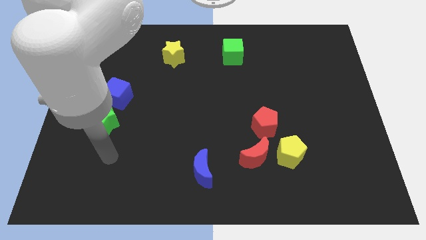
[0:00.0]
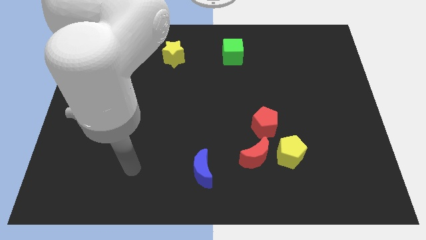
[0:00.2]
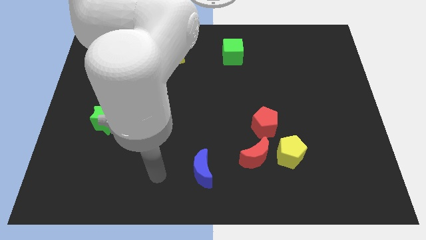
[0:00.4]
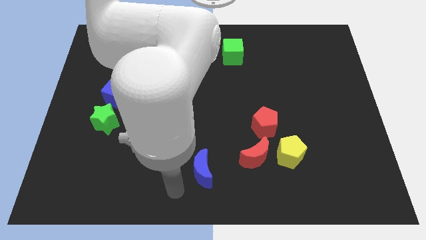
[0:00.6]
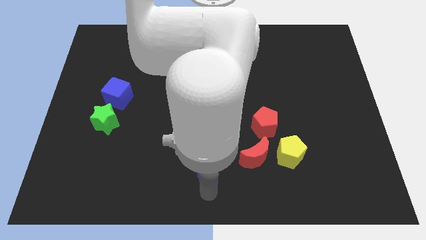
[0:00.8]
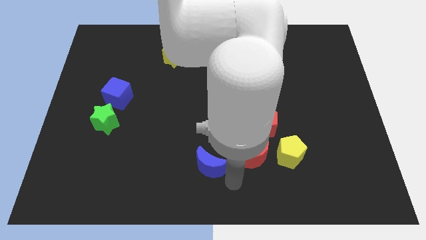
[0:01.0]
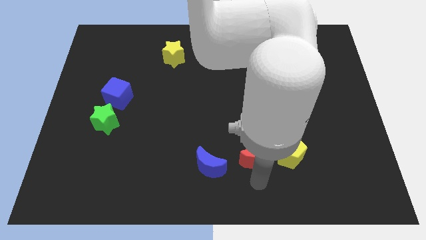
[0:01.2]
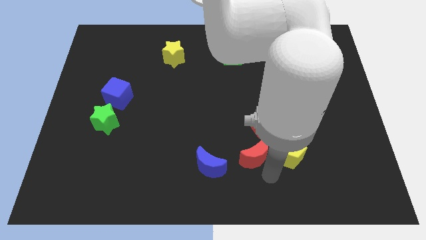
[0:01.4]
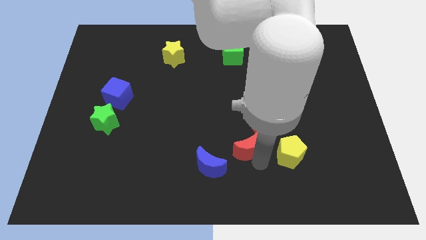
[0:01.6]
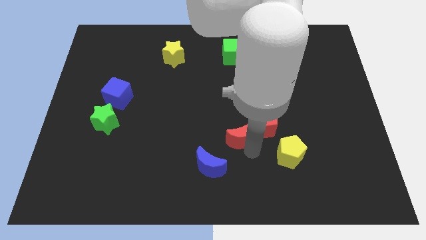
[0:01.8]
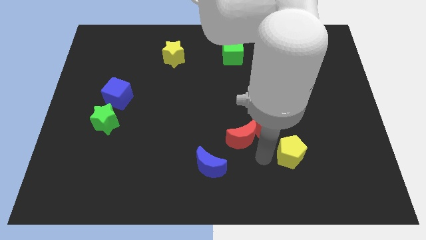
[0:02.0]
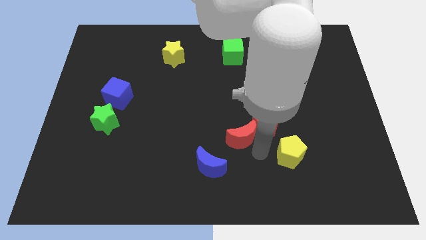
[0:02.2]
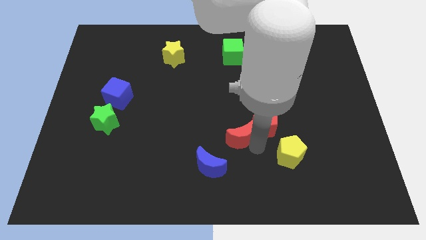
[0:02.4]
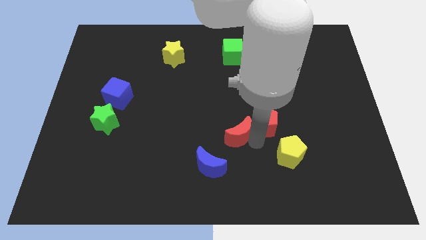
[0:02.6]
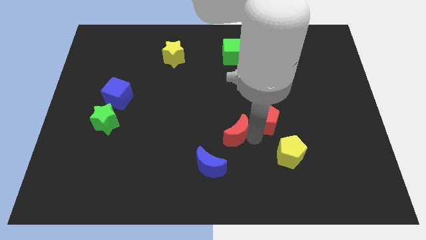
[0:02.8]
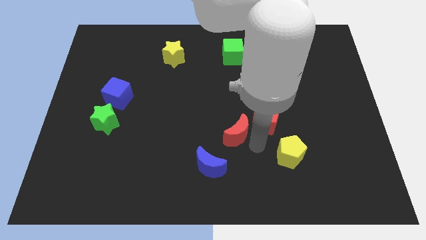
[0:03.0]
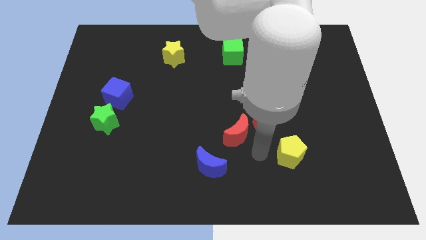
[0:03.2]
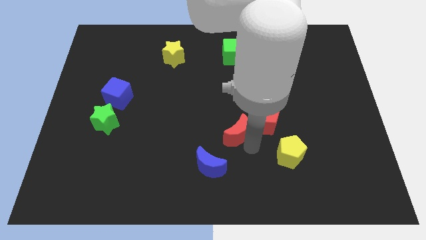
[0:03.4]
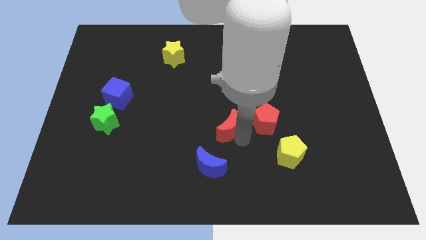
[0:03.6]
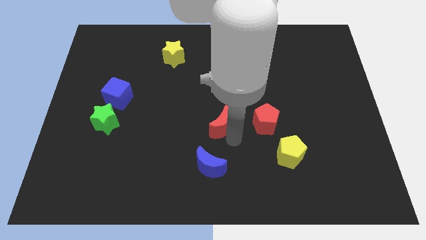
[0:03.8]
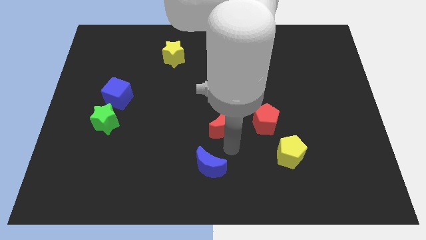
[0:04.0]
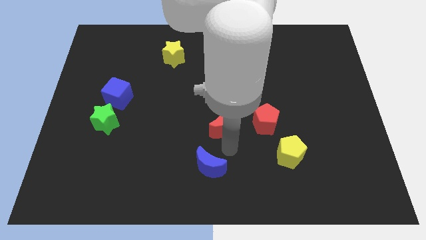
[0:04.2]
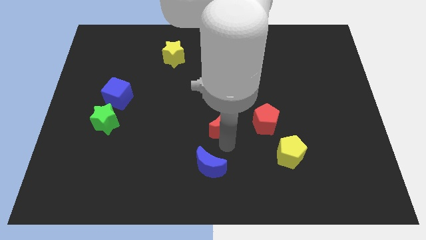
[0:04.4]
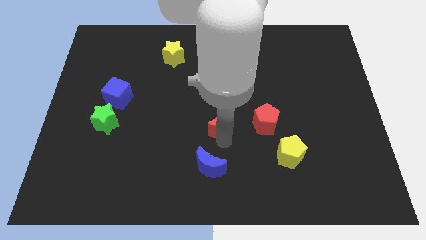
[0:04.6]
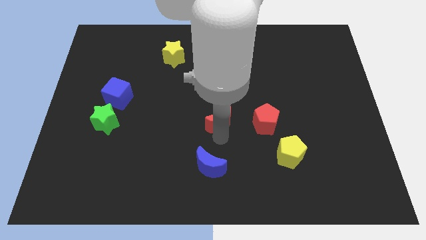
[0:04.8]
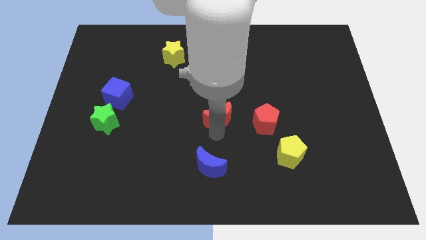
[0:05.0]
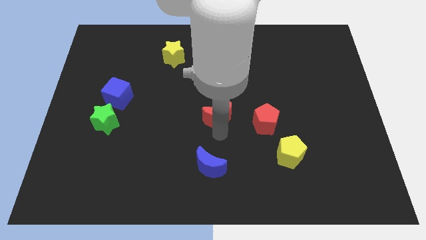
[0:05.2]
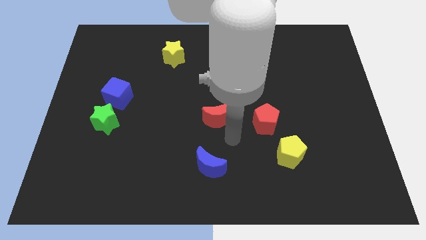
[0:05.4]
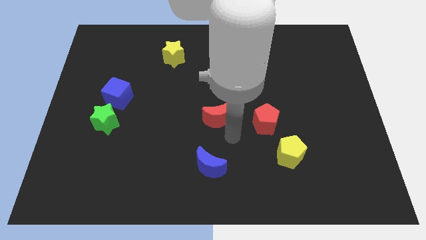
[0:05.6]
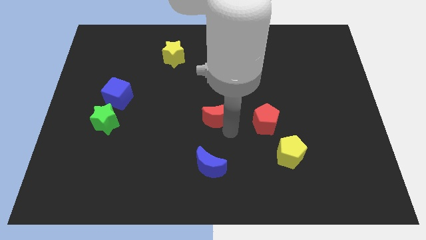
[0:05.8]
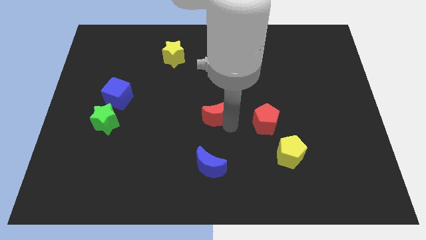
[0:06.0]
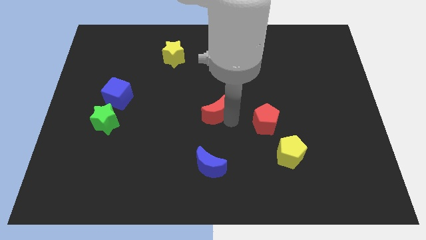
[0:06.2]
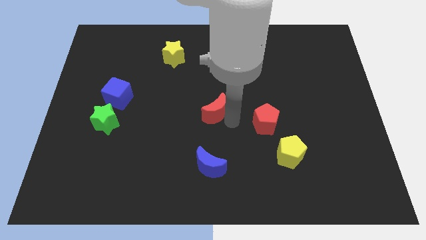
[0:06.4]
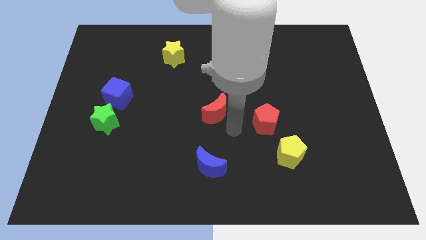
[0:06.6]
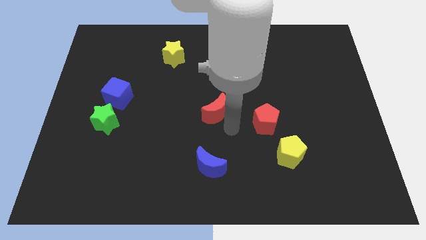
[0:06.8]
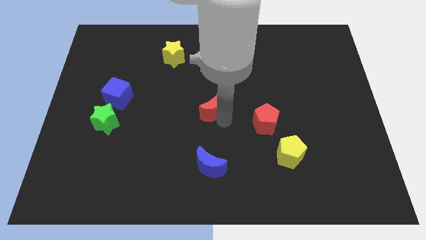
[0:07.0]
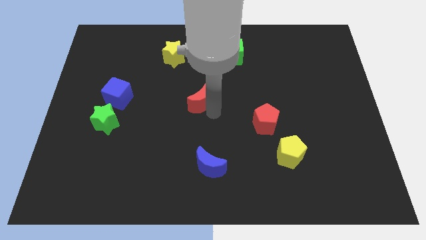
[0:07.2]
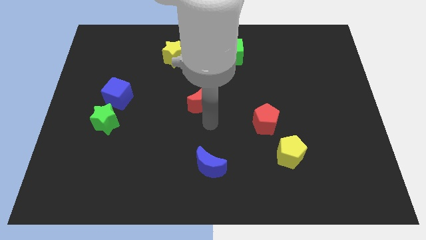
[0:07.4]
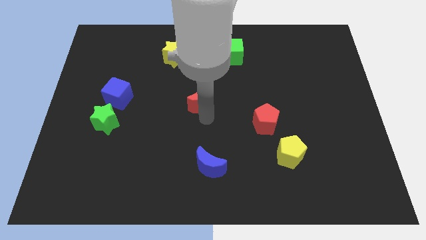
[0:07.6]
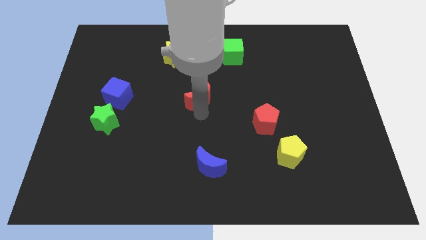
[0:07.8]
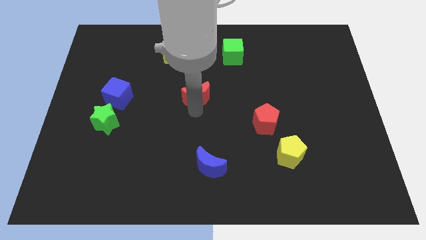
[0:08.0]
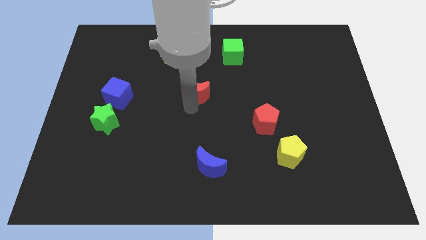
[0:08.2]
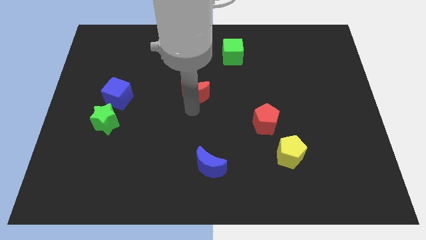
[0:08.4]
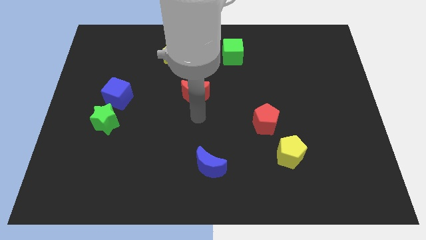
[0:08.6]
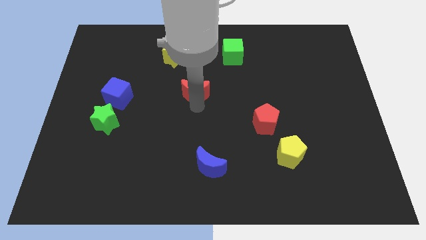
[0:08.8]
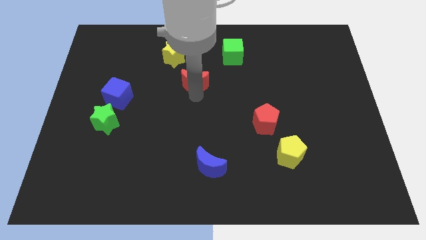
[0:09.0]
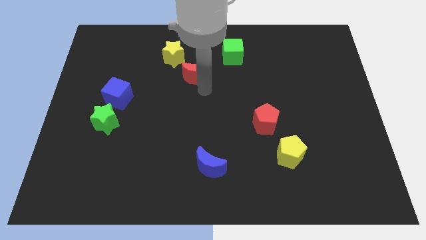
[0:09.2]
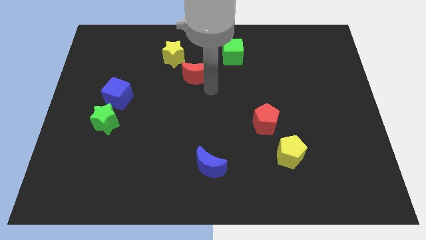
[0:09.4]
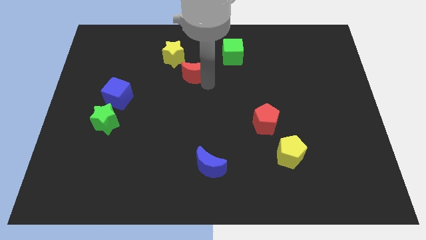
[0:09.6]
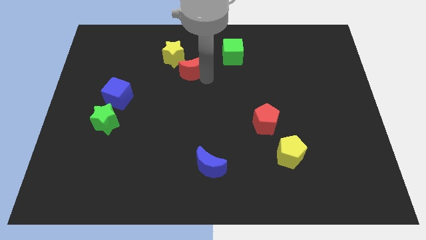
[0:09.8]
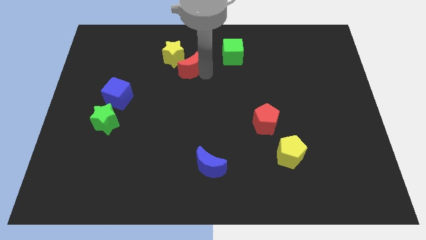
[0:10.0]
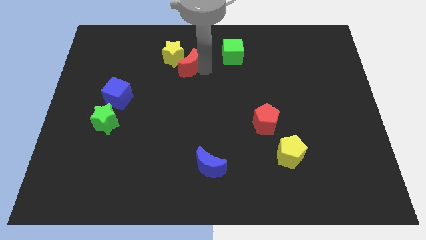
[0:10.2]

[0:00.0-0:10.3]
move the red moon to the yellow star

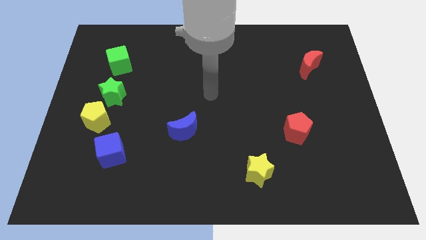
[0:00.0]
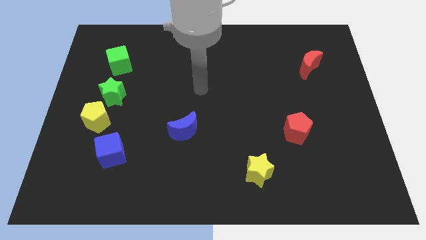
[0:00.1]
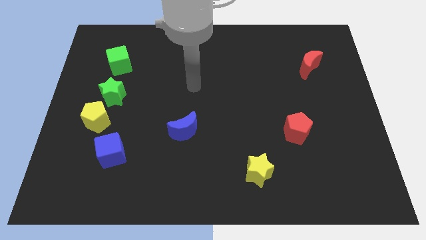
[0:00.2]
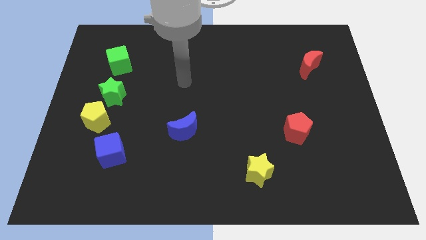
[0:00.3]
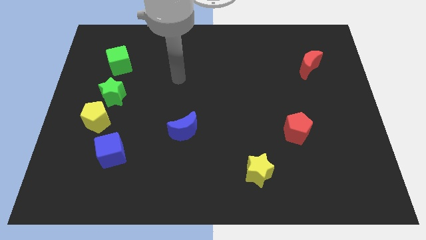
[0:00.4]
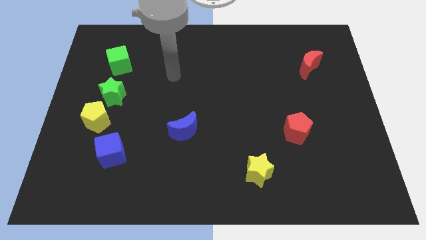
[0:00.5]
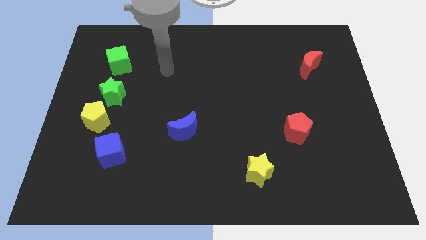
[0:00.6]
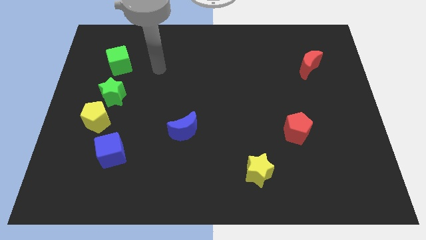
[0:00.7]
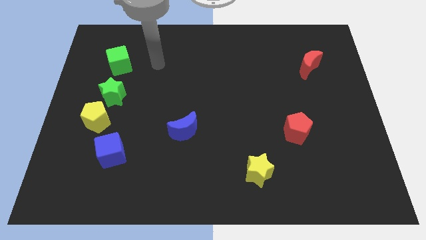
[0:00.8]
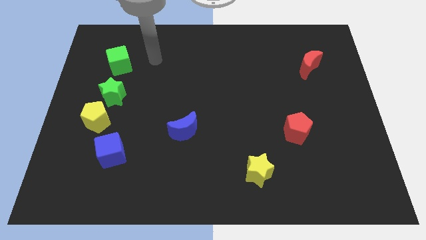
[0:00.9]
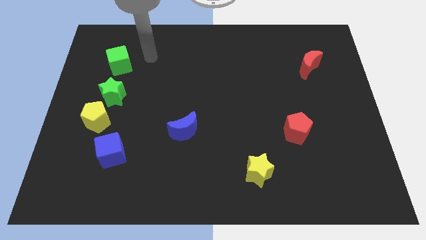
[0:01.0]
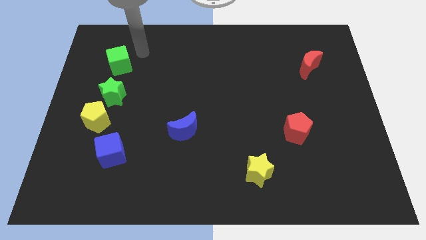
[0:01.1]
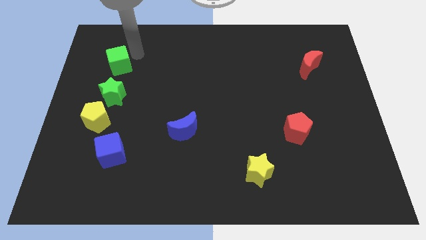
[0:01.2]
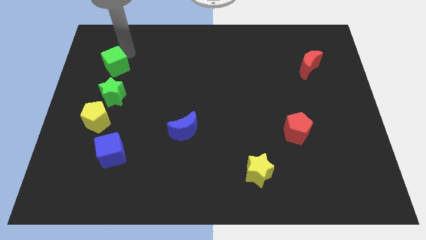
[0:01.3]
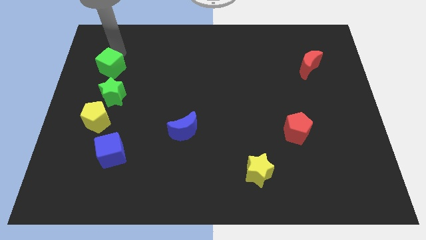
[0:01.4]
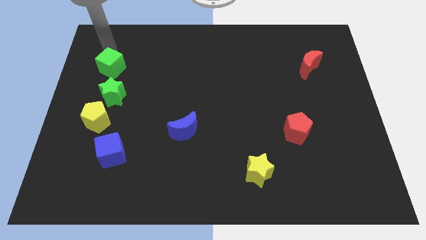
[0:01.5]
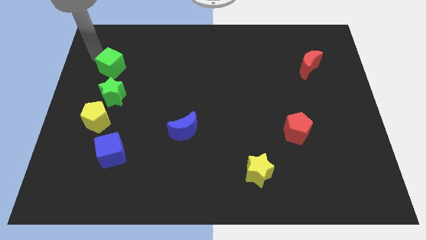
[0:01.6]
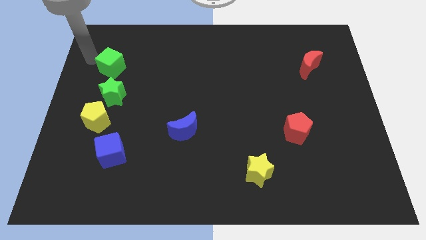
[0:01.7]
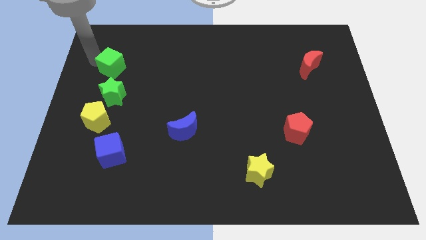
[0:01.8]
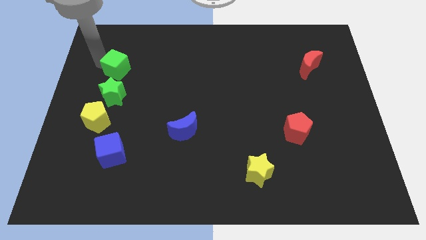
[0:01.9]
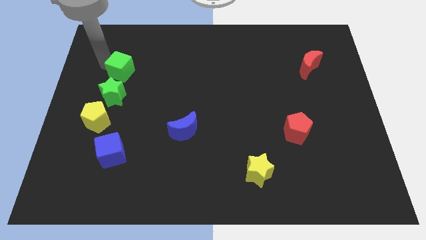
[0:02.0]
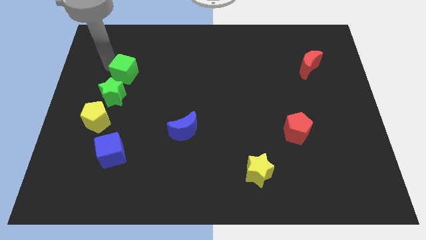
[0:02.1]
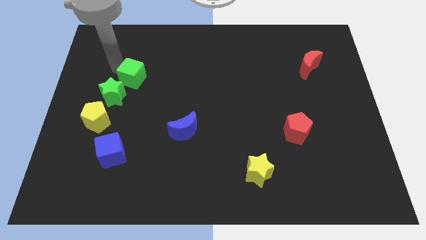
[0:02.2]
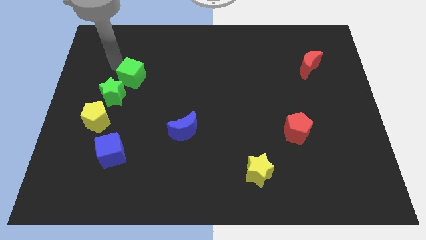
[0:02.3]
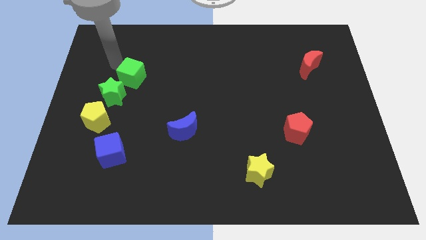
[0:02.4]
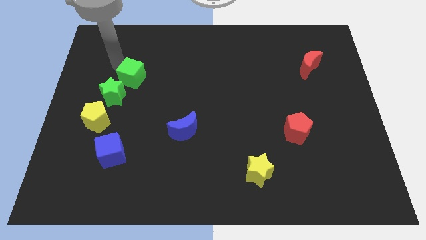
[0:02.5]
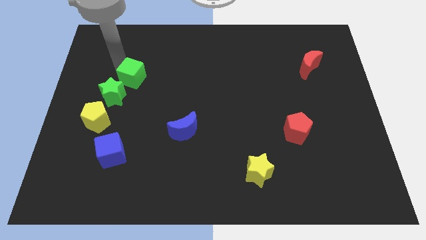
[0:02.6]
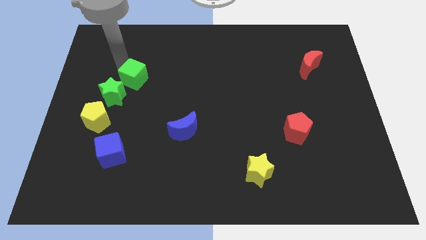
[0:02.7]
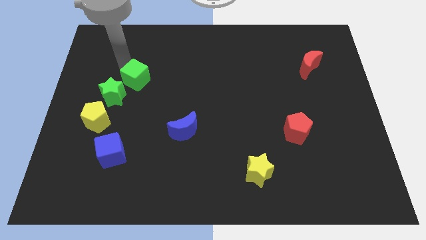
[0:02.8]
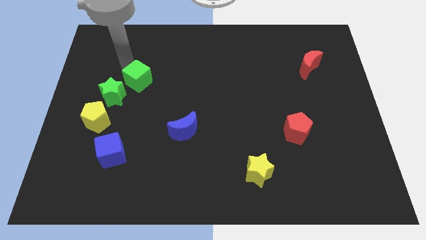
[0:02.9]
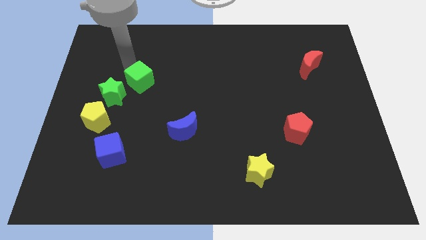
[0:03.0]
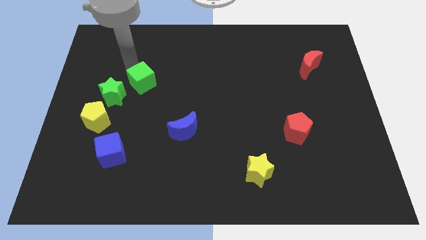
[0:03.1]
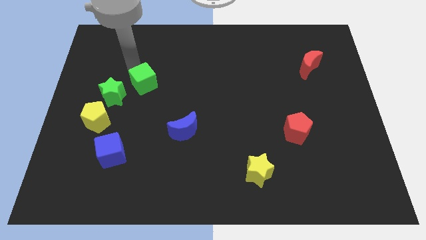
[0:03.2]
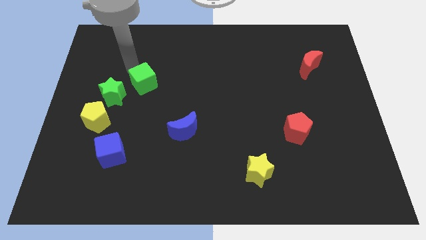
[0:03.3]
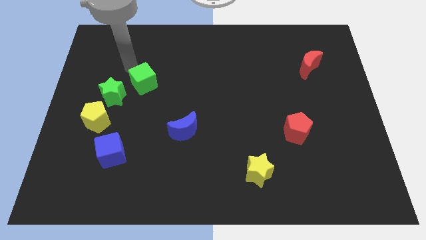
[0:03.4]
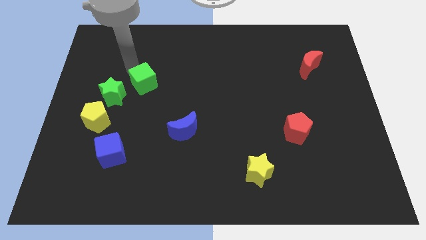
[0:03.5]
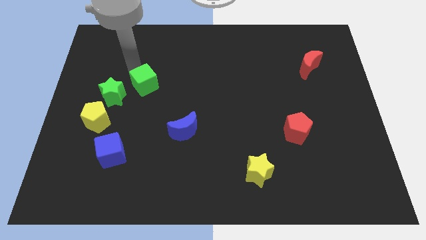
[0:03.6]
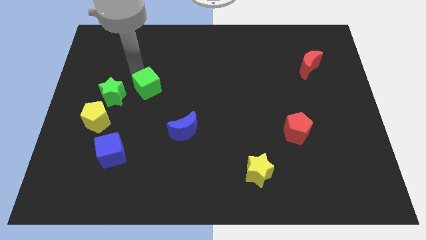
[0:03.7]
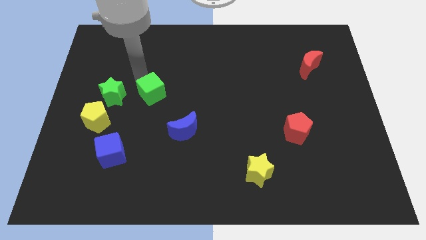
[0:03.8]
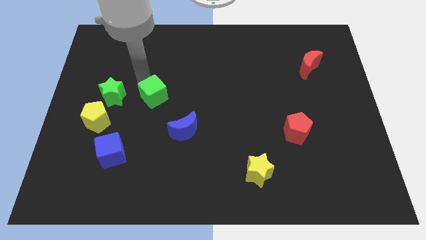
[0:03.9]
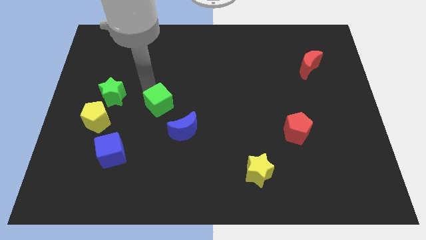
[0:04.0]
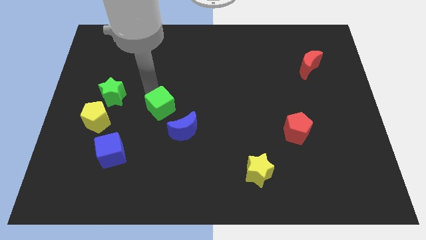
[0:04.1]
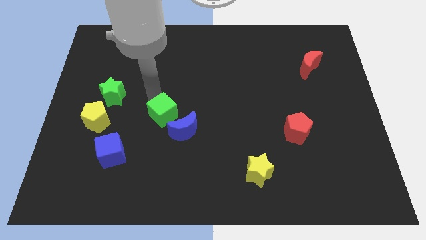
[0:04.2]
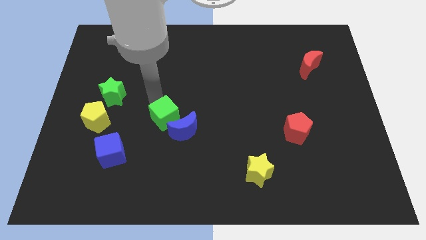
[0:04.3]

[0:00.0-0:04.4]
push the green cube close to the blue moon
